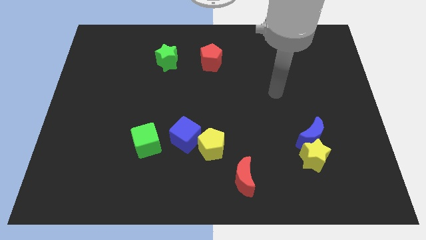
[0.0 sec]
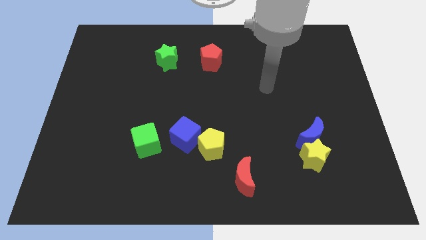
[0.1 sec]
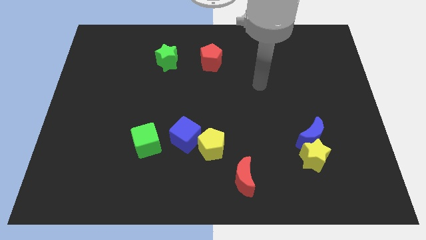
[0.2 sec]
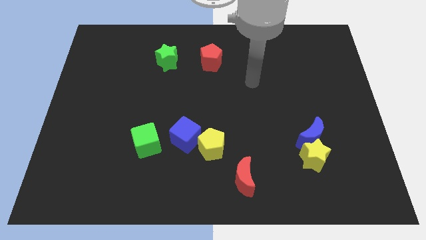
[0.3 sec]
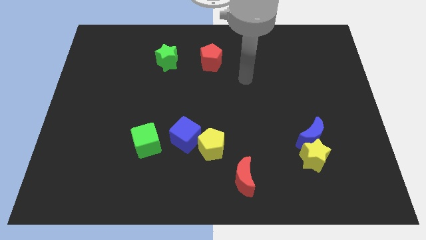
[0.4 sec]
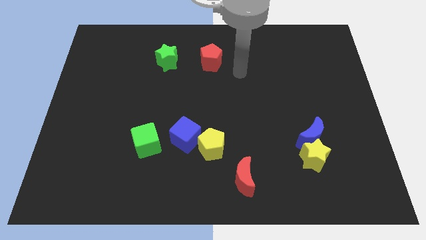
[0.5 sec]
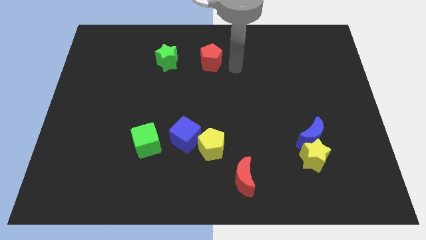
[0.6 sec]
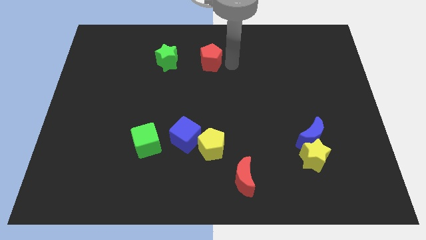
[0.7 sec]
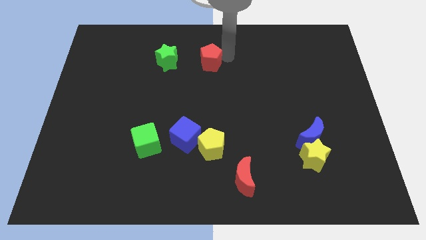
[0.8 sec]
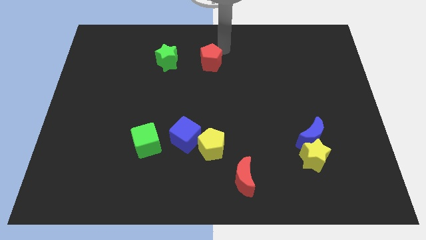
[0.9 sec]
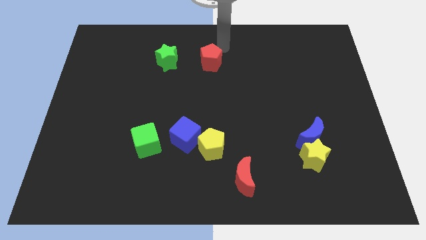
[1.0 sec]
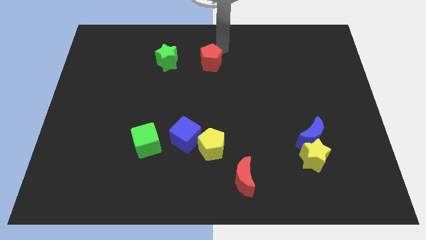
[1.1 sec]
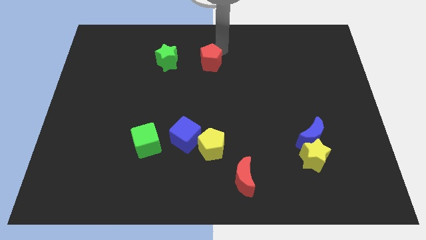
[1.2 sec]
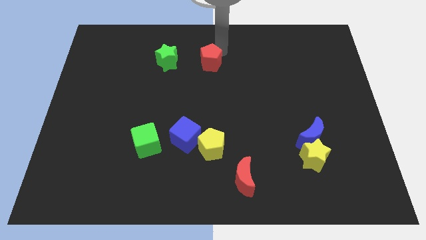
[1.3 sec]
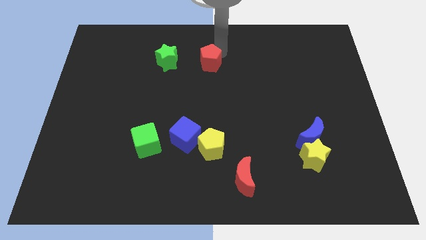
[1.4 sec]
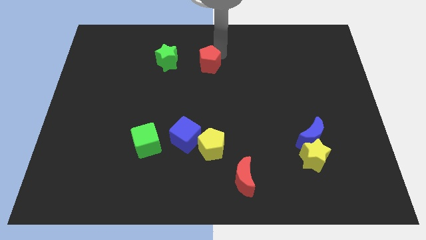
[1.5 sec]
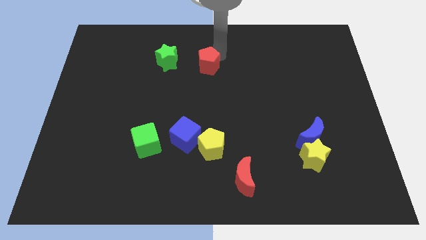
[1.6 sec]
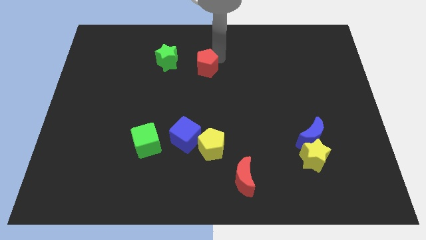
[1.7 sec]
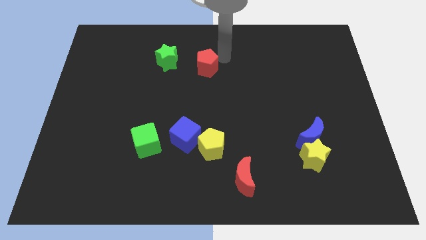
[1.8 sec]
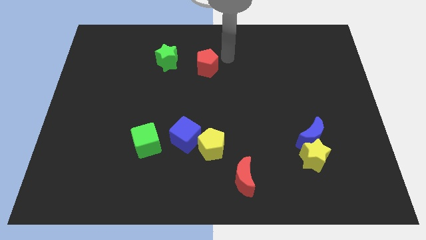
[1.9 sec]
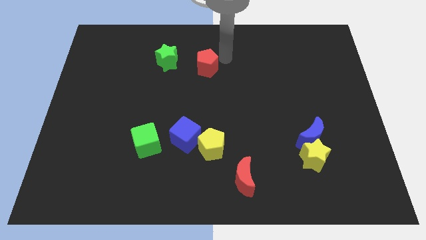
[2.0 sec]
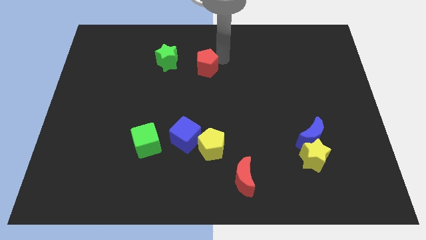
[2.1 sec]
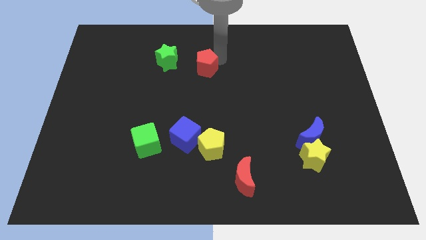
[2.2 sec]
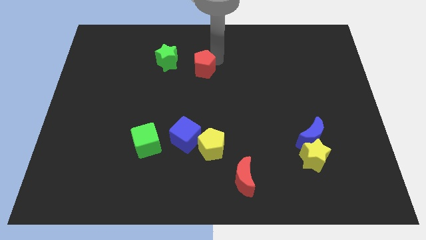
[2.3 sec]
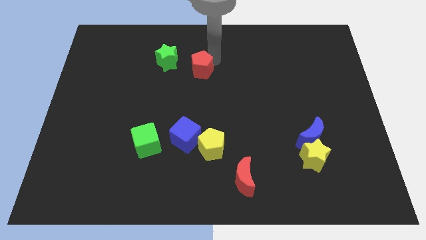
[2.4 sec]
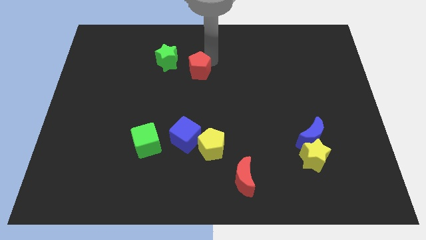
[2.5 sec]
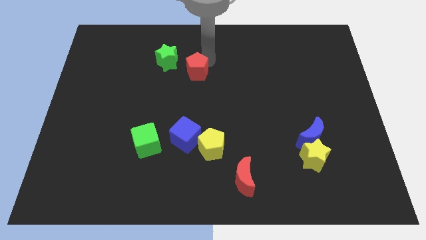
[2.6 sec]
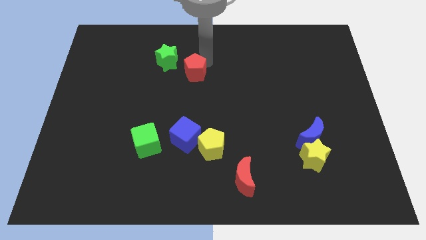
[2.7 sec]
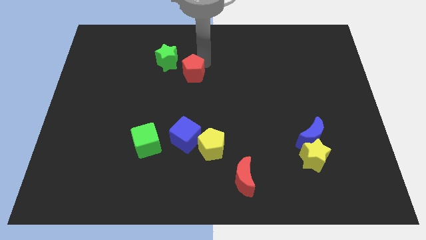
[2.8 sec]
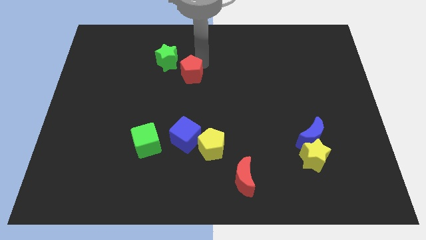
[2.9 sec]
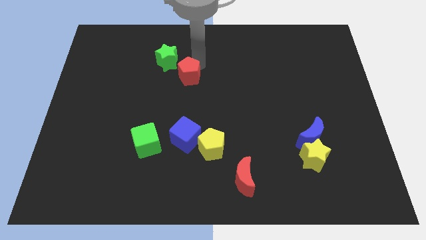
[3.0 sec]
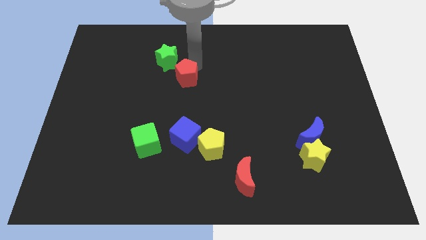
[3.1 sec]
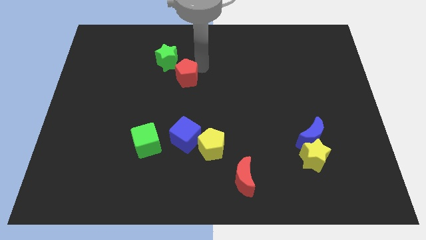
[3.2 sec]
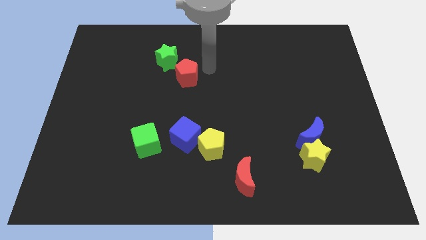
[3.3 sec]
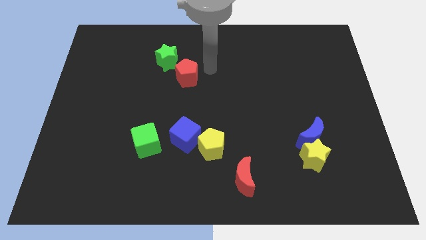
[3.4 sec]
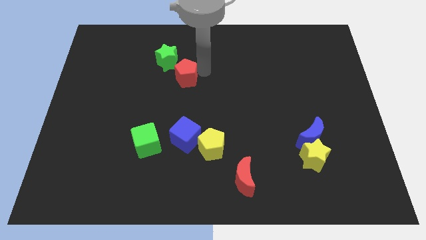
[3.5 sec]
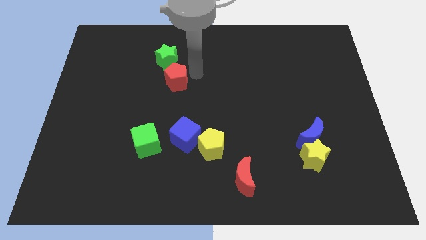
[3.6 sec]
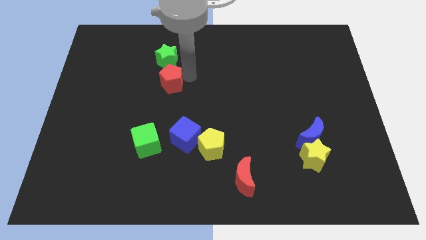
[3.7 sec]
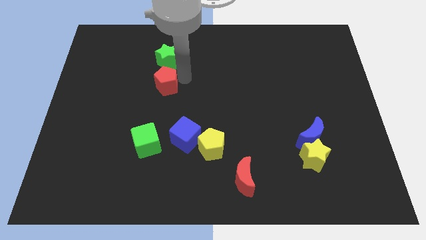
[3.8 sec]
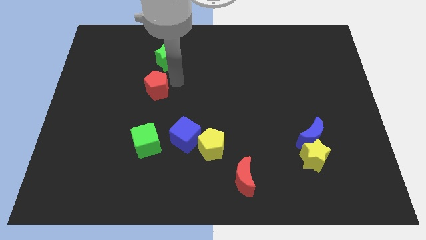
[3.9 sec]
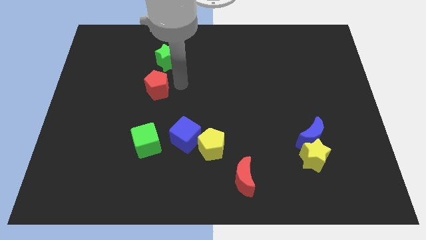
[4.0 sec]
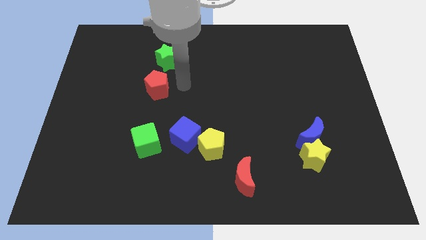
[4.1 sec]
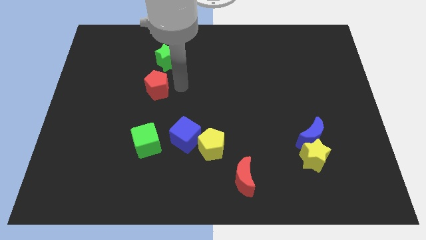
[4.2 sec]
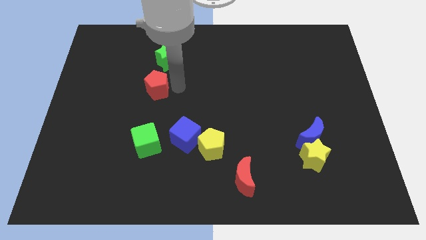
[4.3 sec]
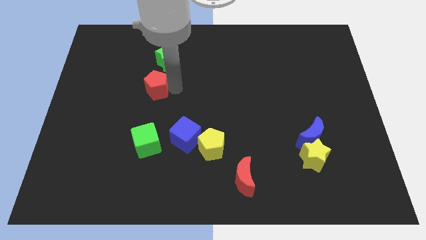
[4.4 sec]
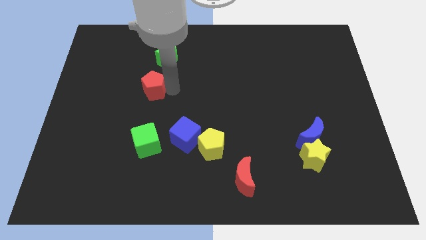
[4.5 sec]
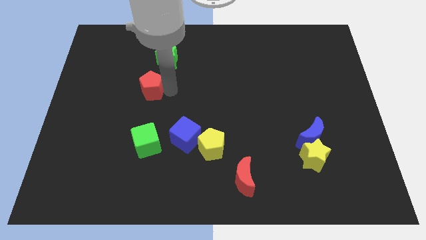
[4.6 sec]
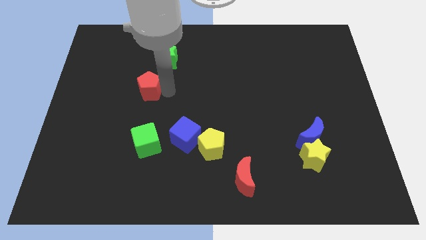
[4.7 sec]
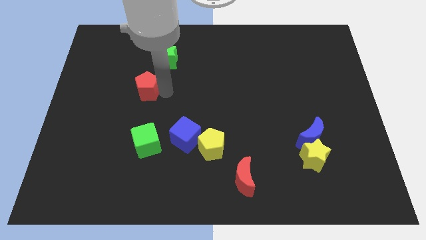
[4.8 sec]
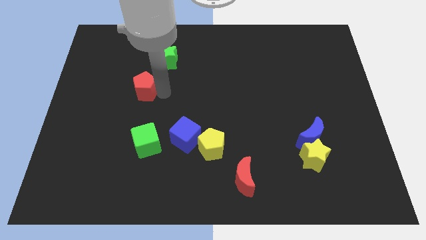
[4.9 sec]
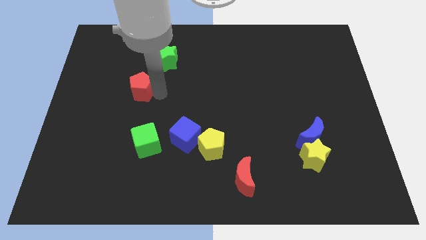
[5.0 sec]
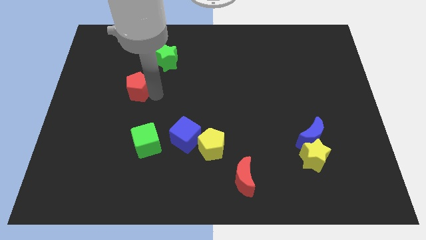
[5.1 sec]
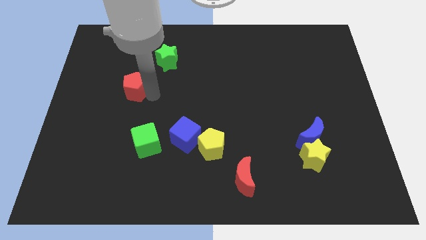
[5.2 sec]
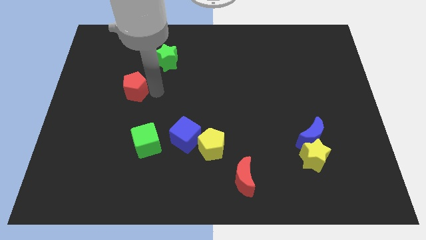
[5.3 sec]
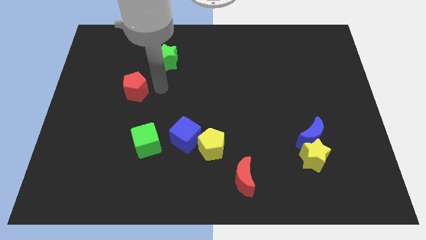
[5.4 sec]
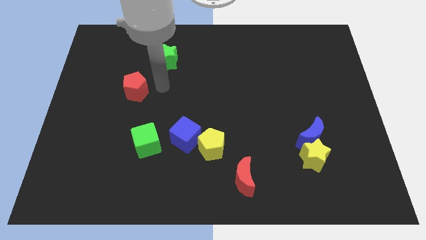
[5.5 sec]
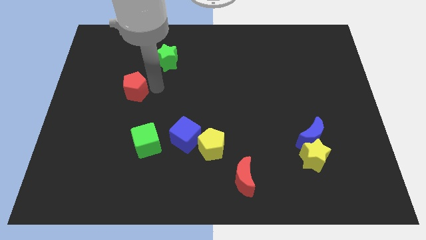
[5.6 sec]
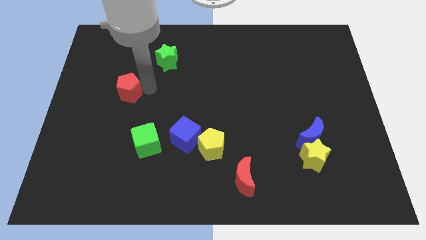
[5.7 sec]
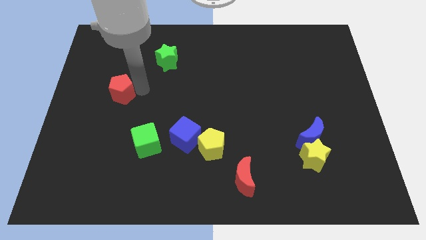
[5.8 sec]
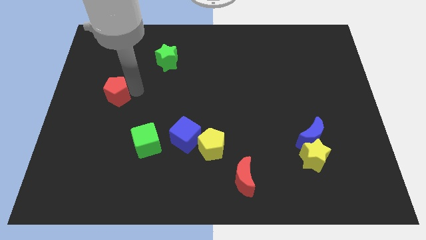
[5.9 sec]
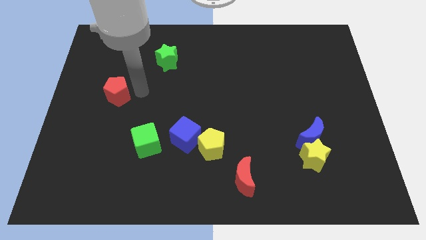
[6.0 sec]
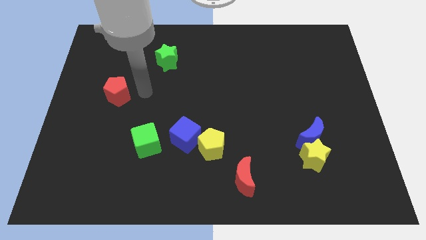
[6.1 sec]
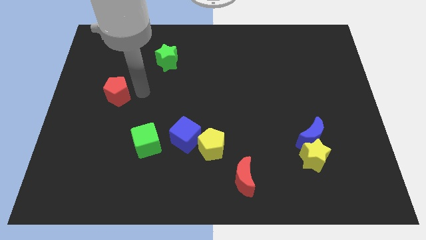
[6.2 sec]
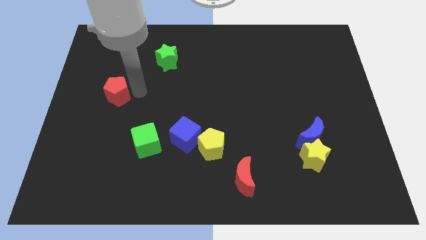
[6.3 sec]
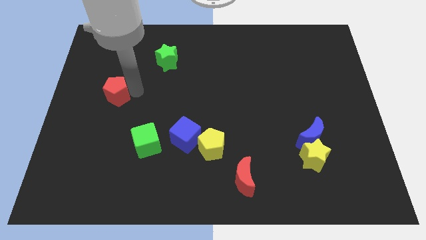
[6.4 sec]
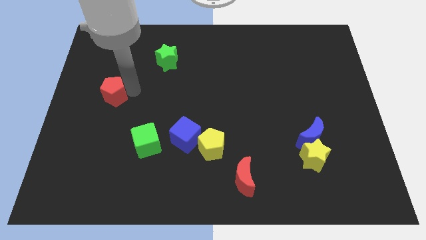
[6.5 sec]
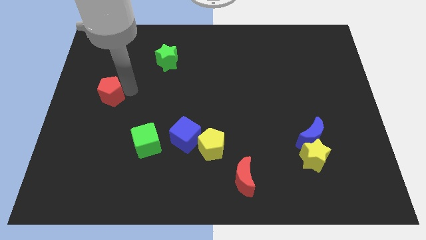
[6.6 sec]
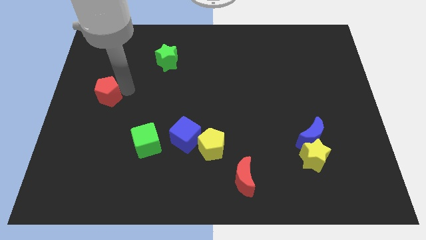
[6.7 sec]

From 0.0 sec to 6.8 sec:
slide the red pentagon to the center left
